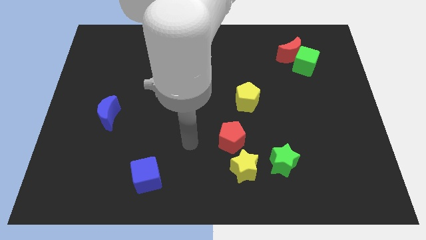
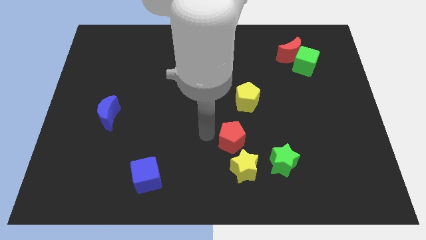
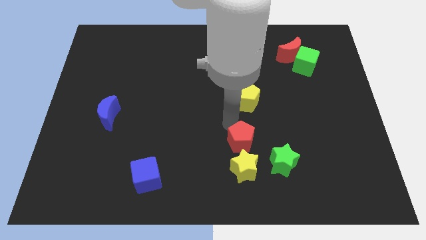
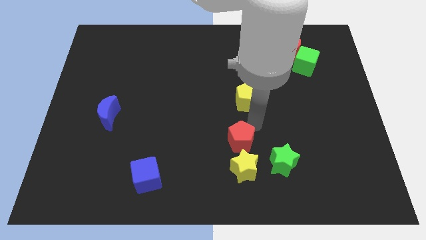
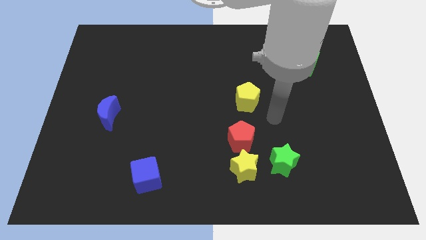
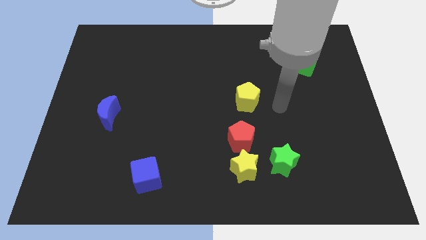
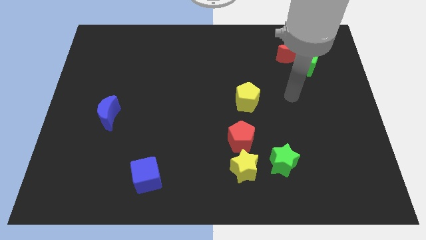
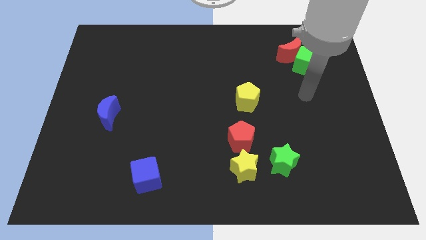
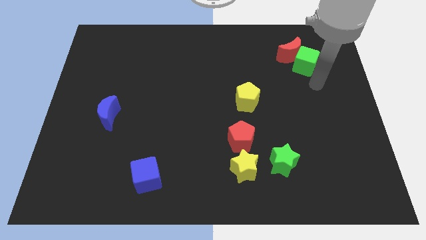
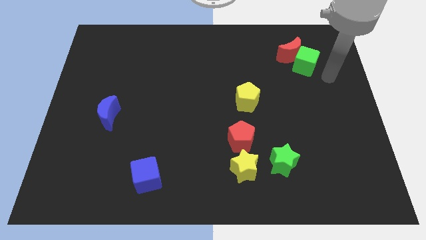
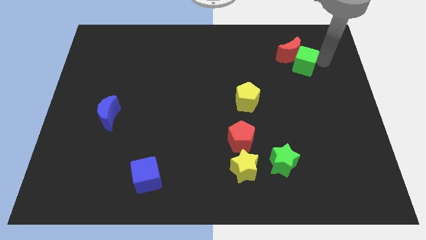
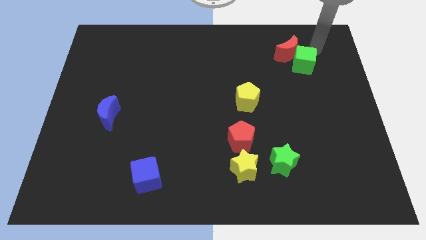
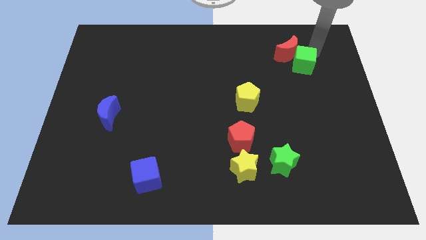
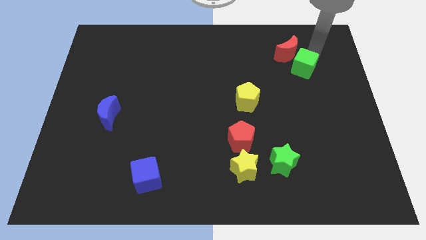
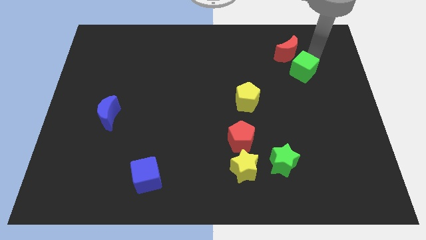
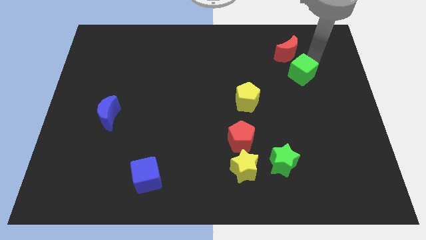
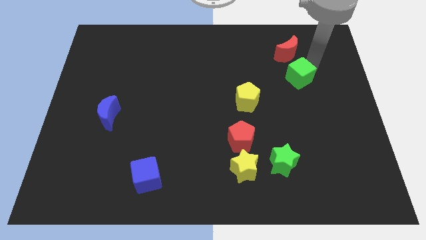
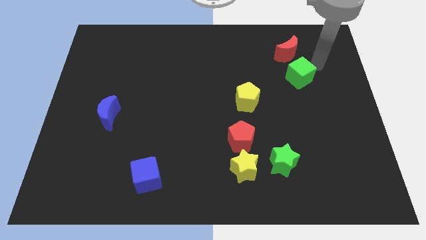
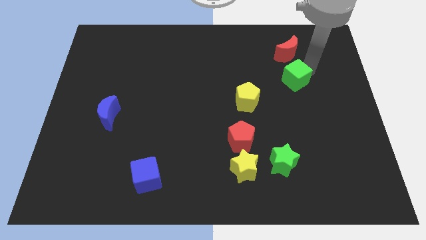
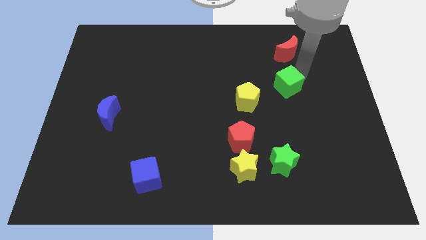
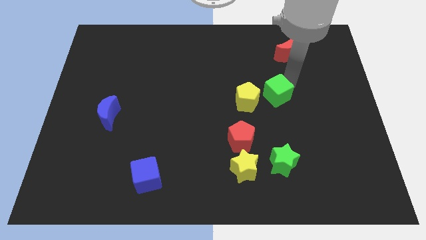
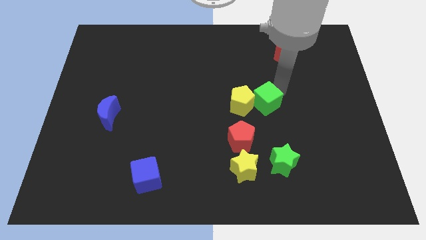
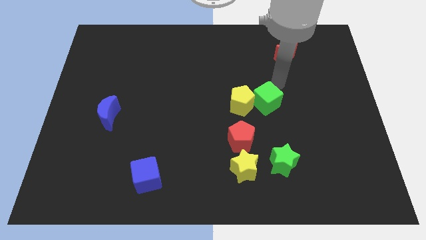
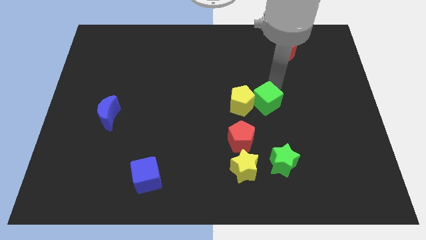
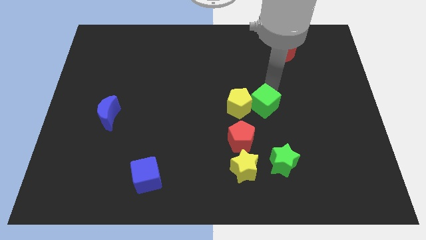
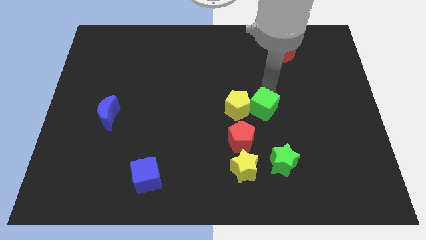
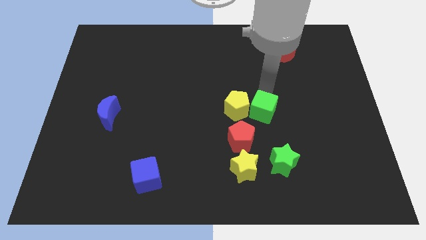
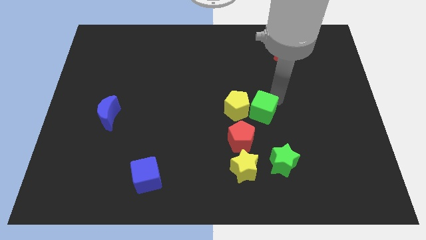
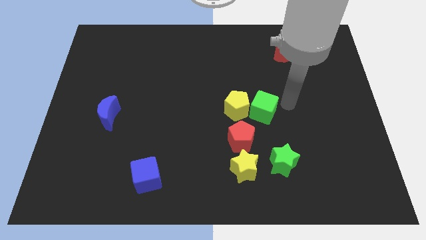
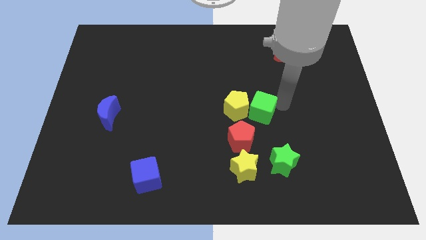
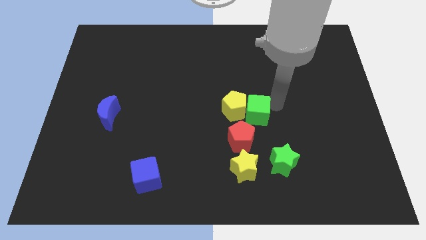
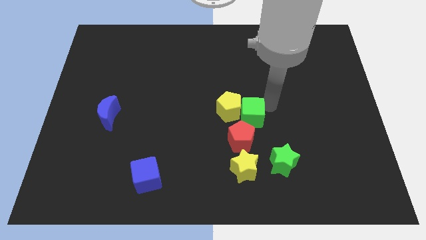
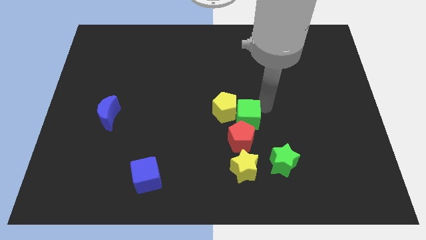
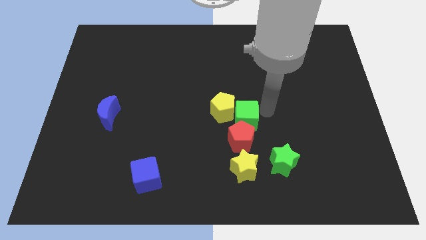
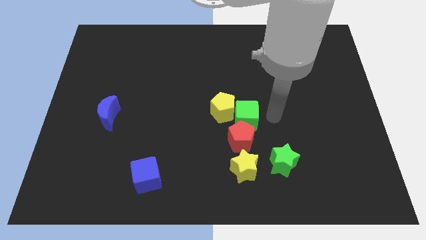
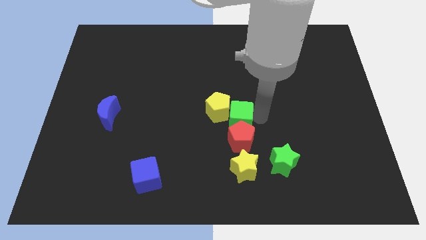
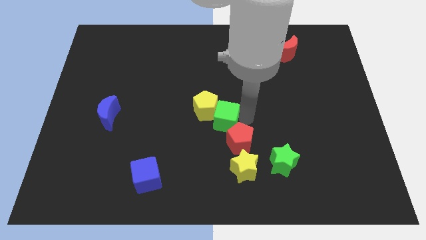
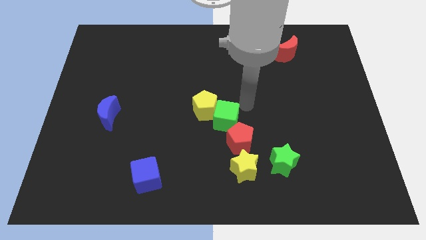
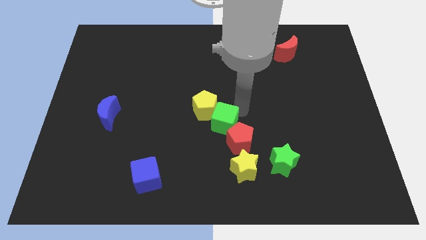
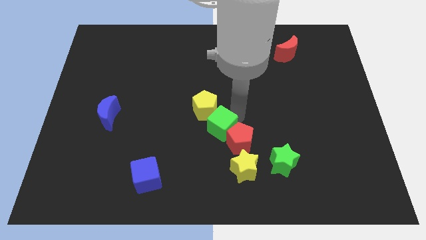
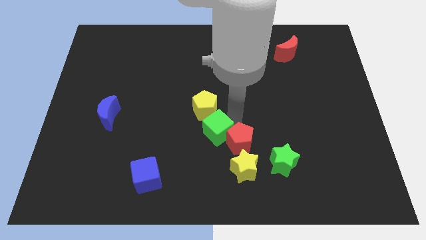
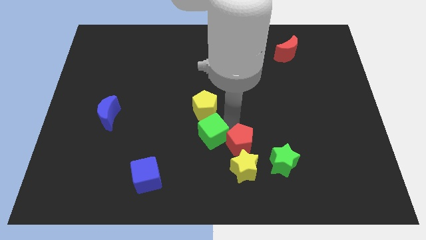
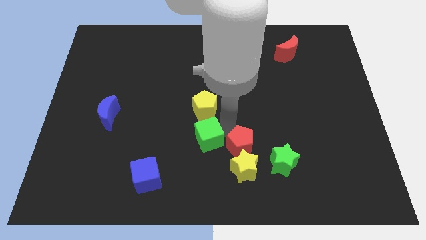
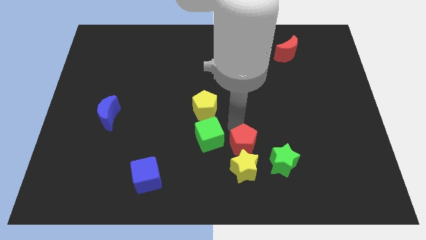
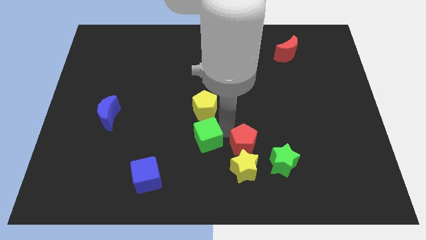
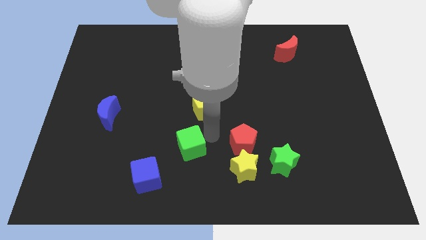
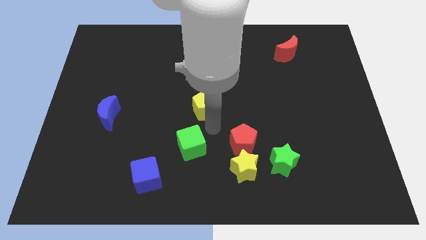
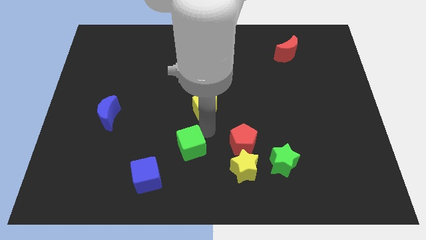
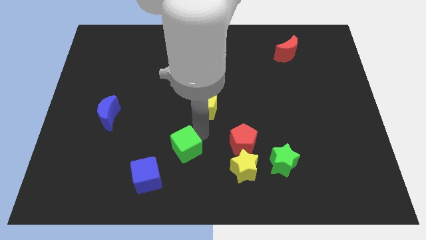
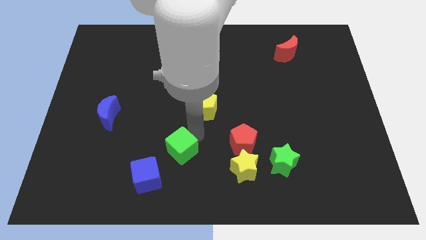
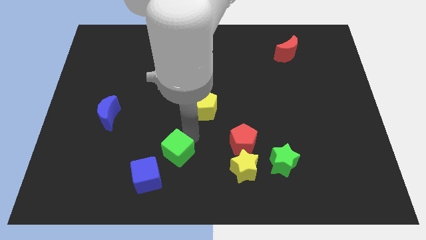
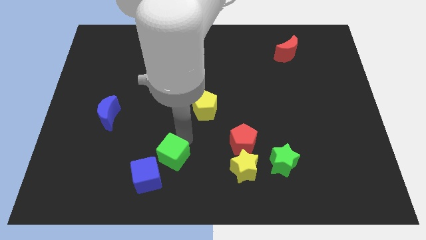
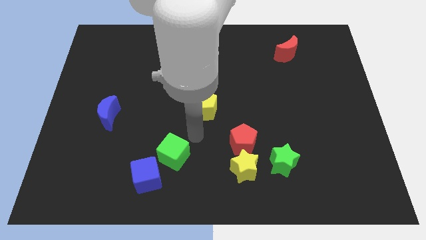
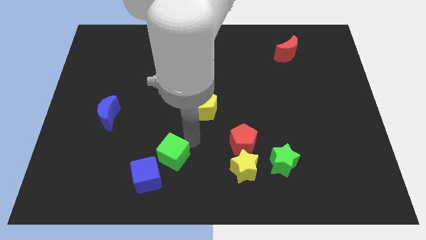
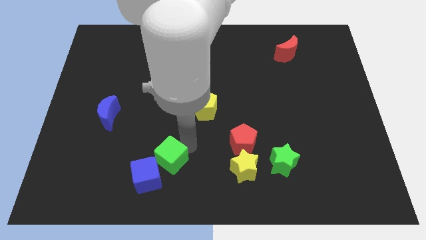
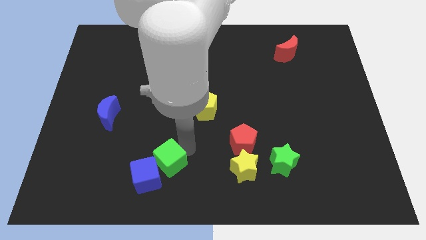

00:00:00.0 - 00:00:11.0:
slide the green cube towards the blue cube

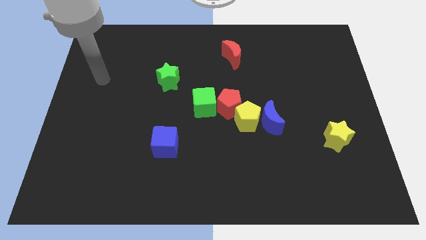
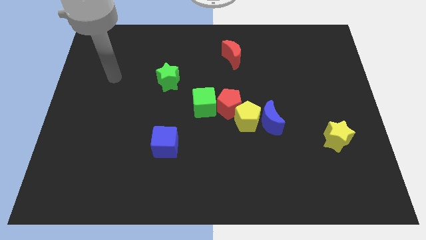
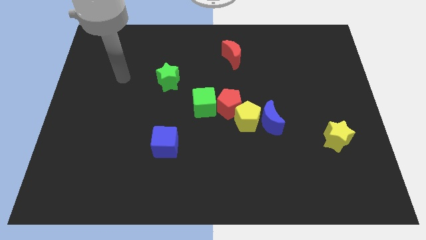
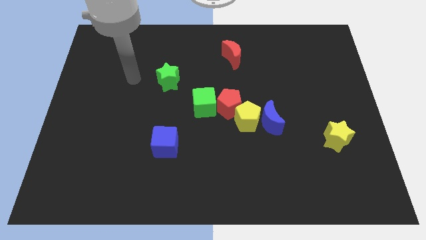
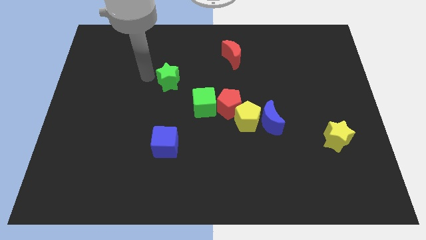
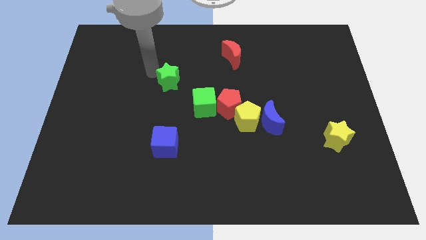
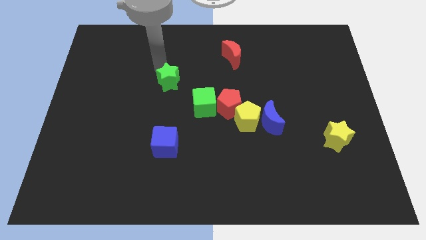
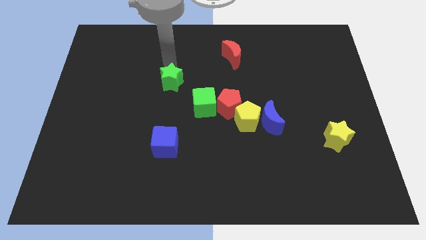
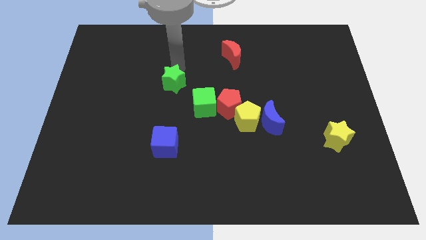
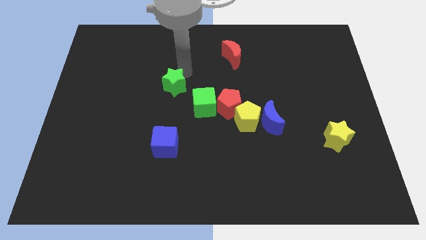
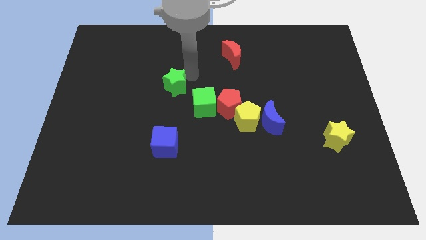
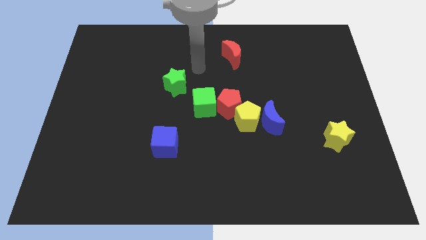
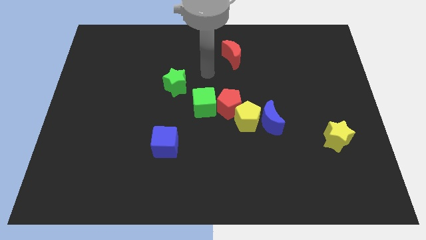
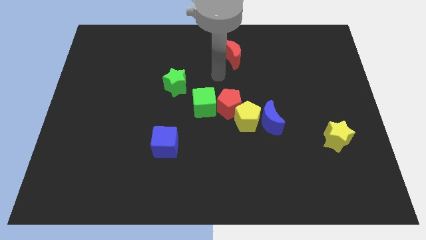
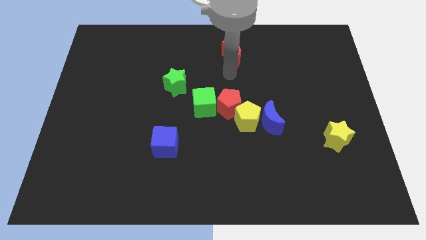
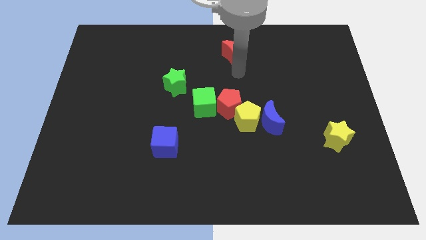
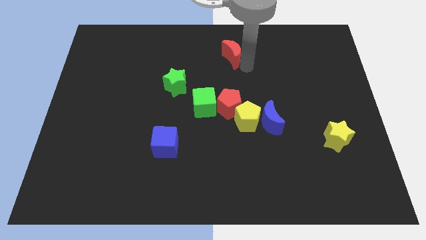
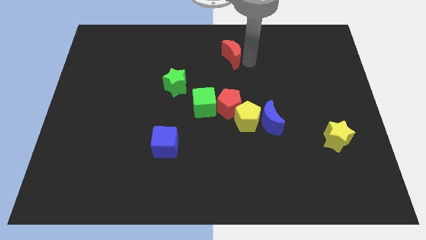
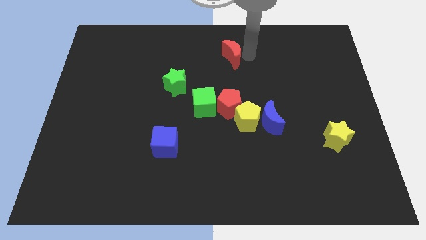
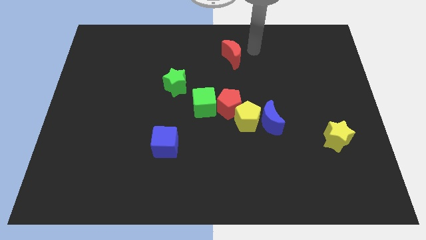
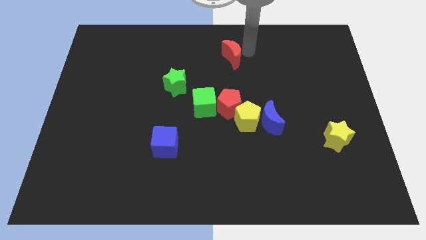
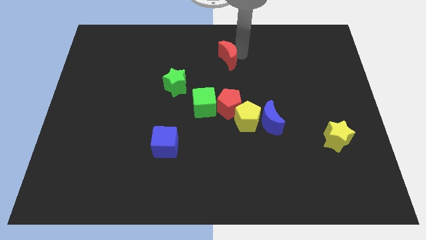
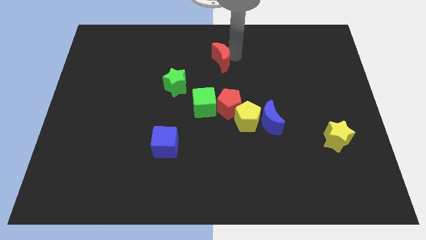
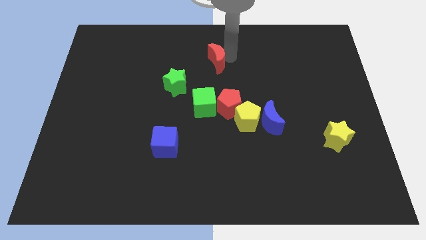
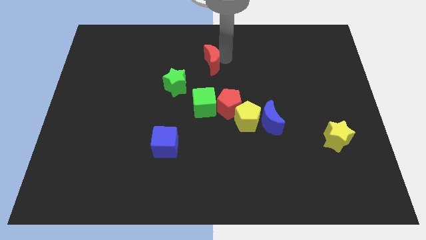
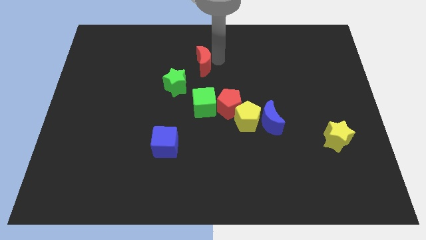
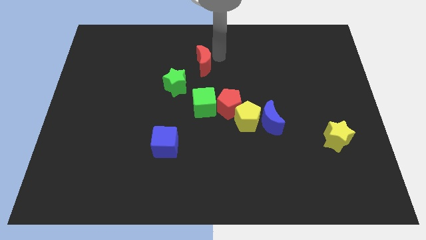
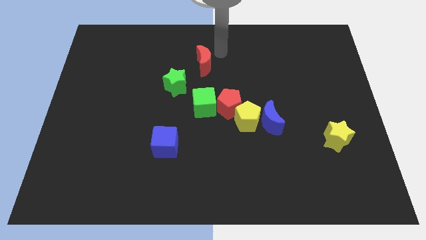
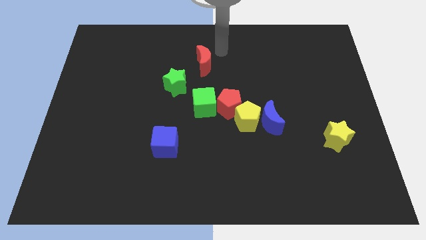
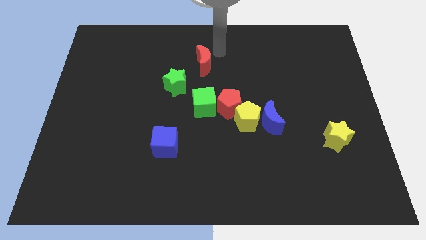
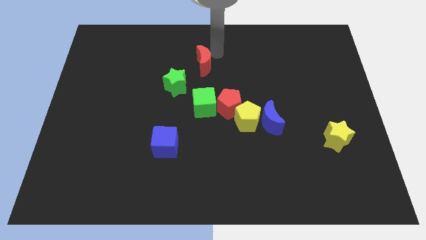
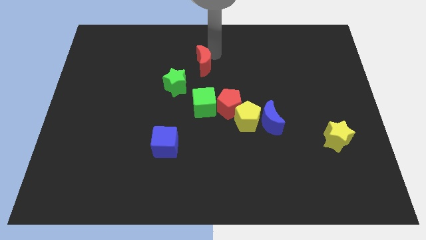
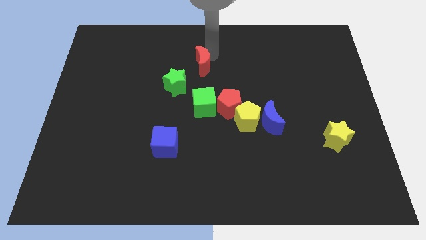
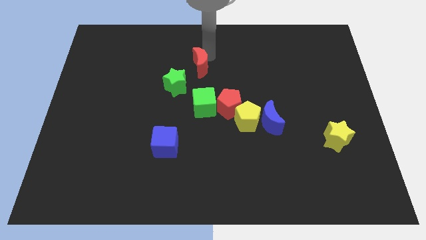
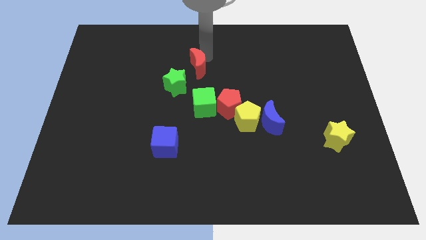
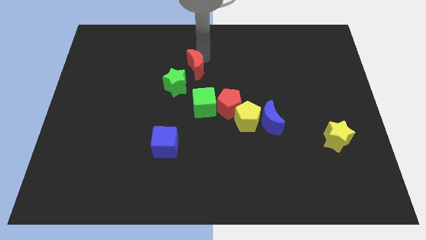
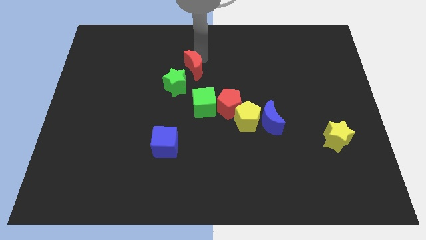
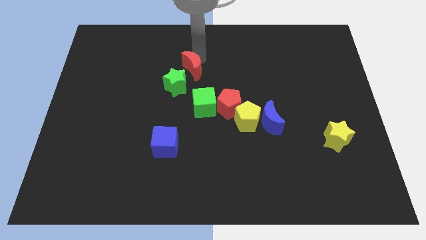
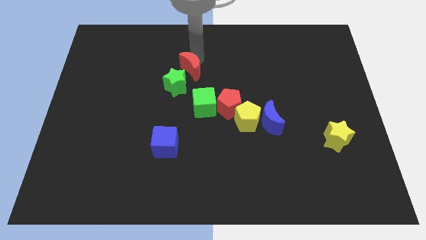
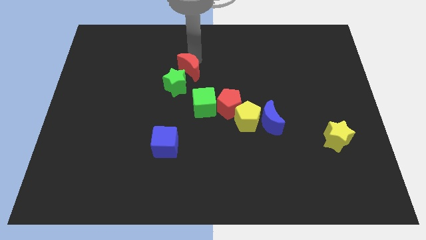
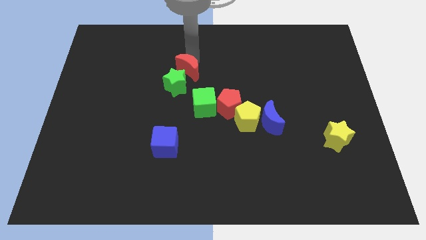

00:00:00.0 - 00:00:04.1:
move the red moon towards the green star
